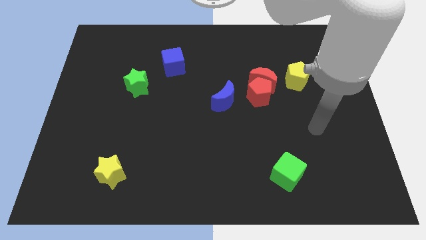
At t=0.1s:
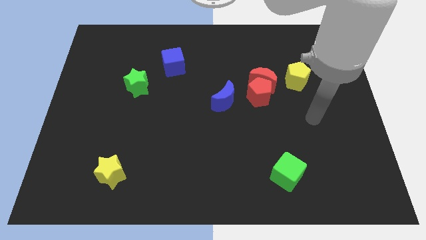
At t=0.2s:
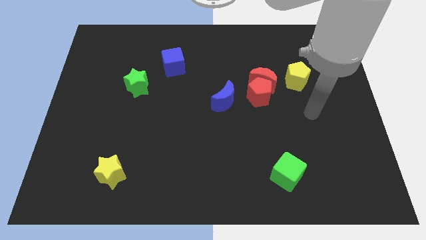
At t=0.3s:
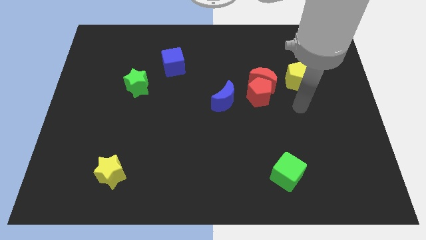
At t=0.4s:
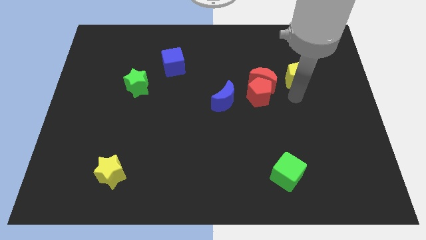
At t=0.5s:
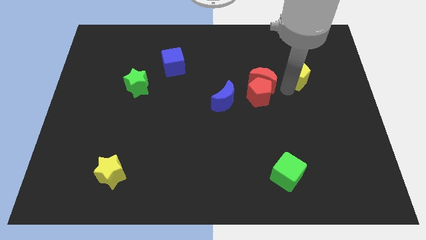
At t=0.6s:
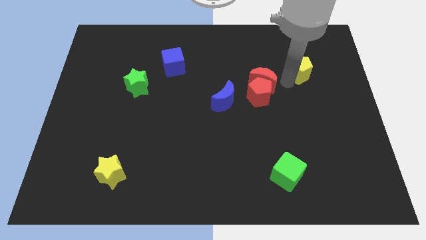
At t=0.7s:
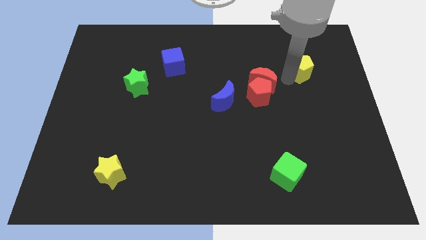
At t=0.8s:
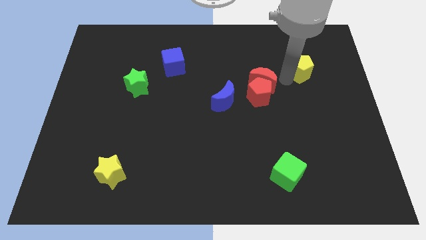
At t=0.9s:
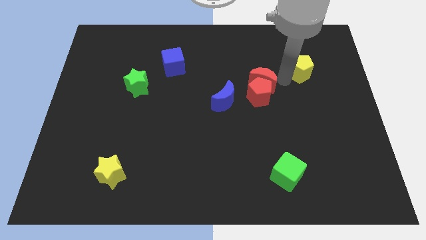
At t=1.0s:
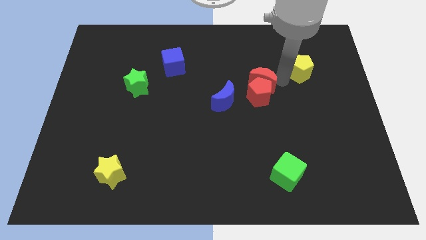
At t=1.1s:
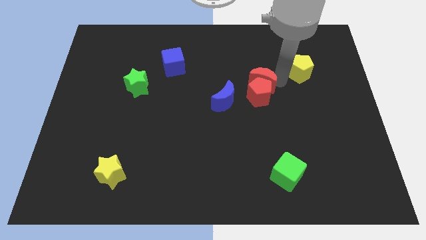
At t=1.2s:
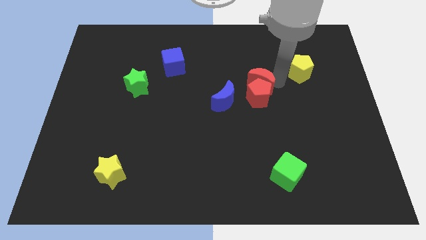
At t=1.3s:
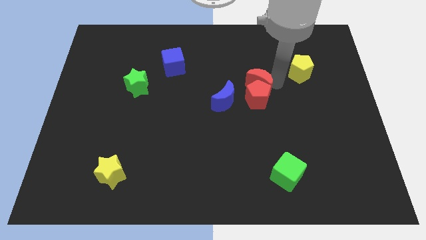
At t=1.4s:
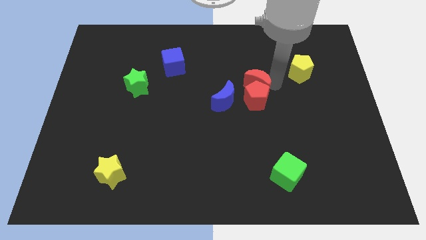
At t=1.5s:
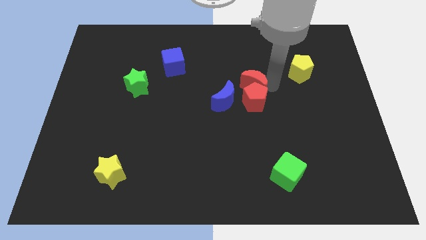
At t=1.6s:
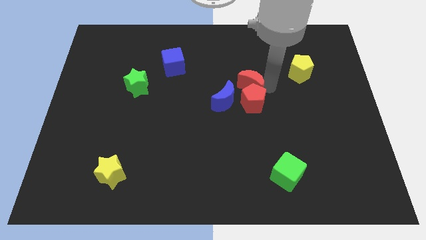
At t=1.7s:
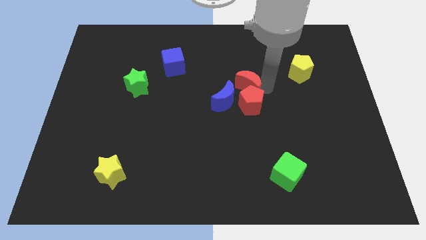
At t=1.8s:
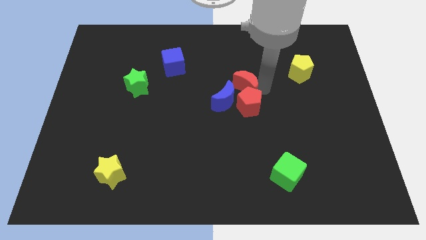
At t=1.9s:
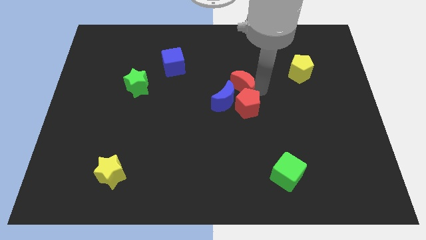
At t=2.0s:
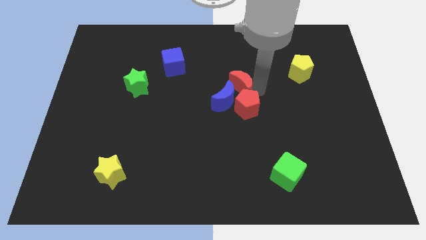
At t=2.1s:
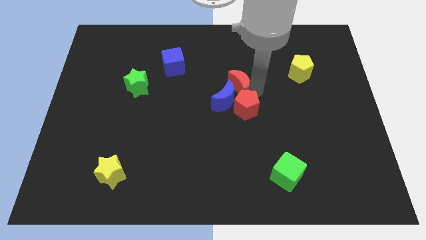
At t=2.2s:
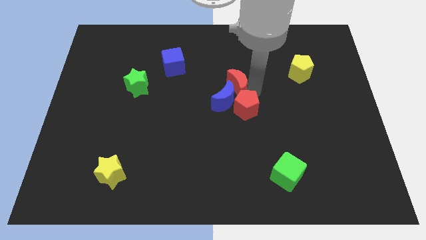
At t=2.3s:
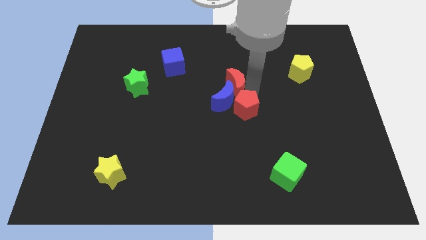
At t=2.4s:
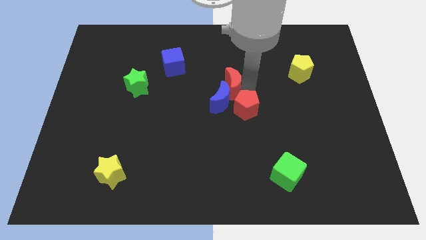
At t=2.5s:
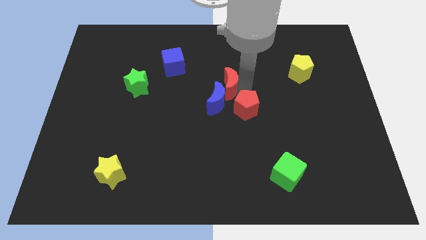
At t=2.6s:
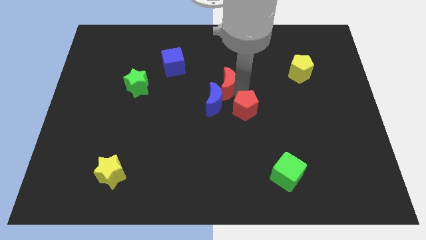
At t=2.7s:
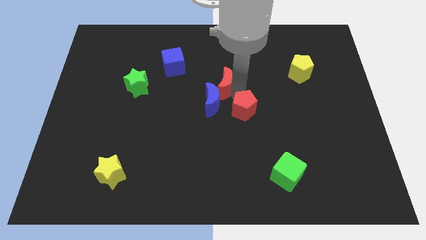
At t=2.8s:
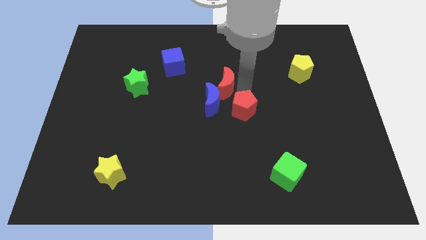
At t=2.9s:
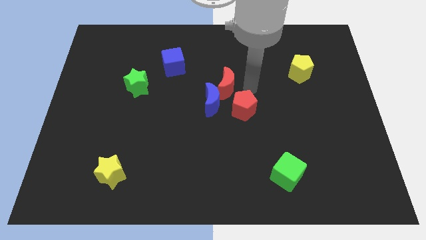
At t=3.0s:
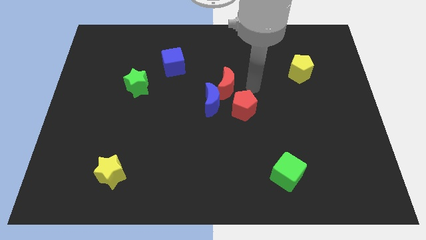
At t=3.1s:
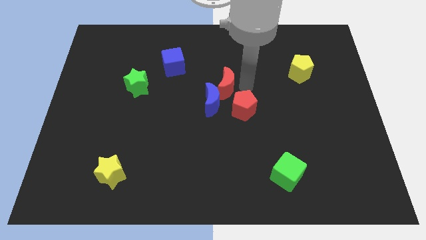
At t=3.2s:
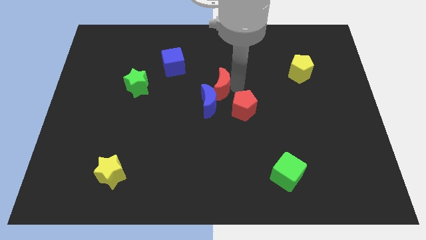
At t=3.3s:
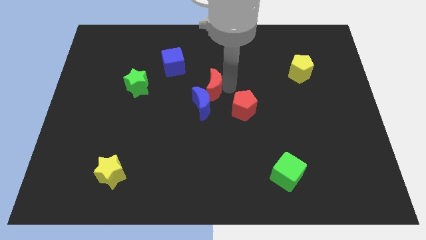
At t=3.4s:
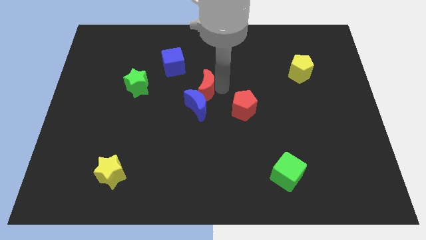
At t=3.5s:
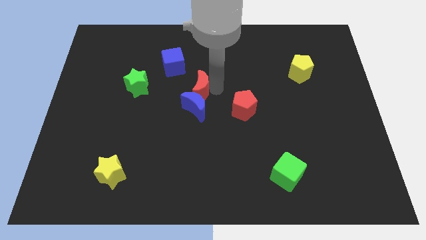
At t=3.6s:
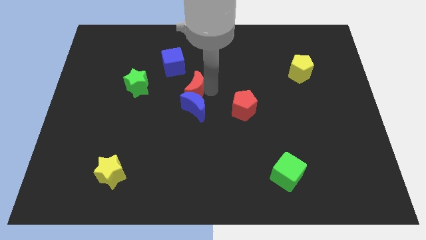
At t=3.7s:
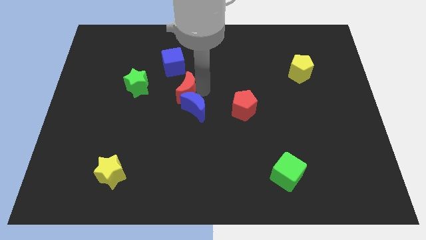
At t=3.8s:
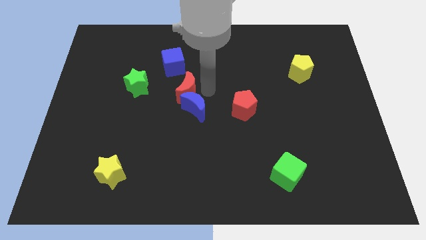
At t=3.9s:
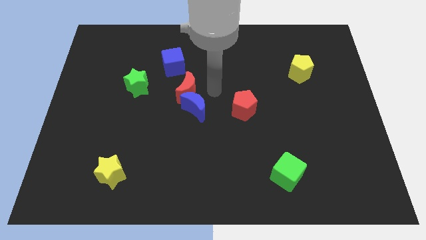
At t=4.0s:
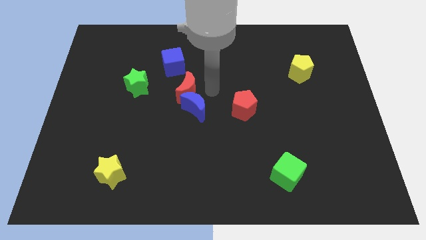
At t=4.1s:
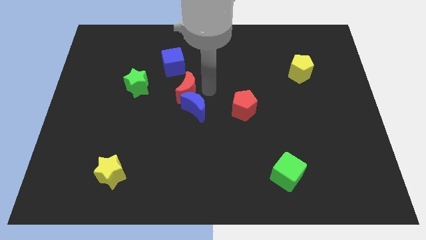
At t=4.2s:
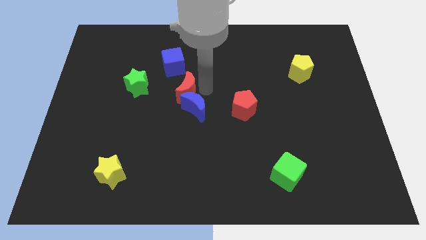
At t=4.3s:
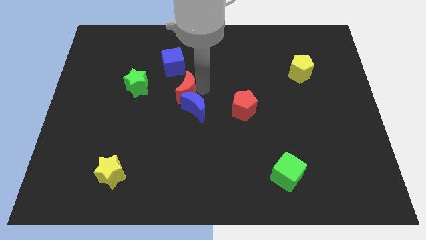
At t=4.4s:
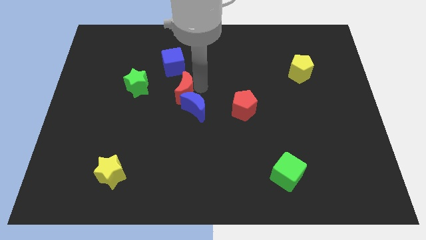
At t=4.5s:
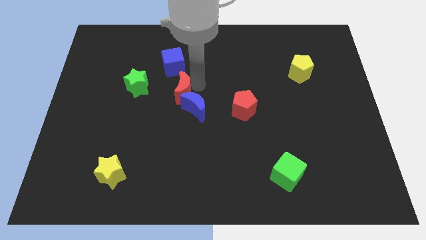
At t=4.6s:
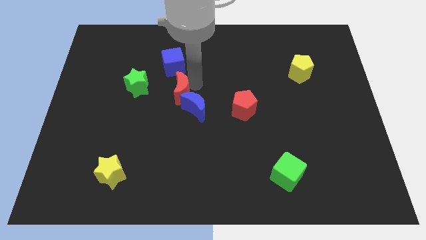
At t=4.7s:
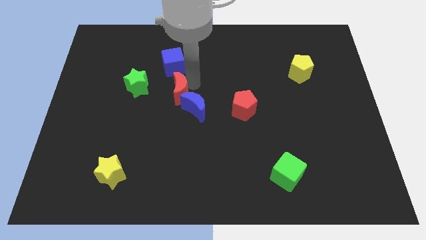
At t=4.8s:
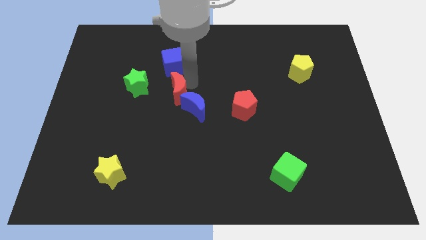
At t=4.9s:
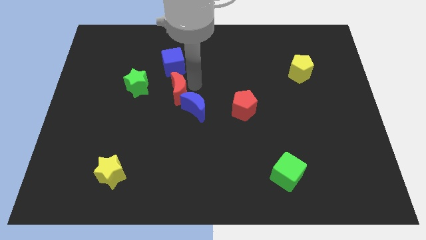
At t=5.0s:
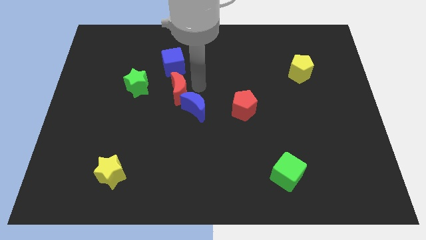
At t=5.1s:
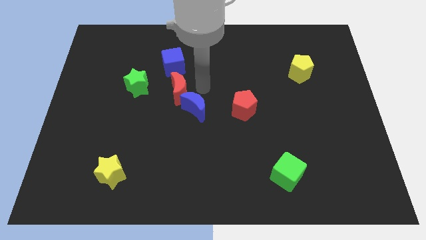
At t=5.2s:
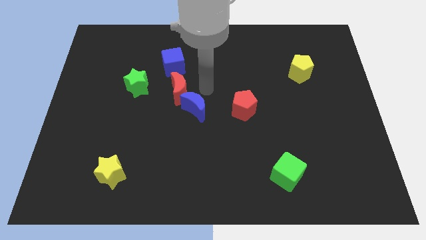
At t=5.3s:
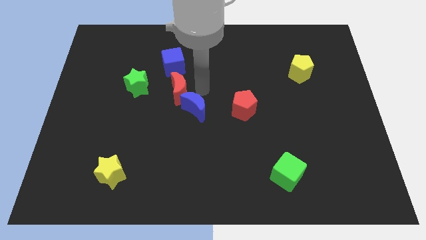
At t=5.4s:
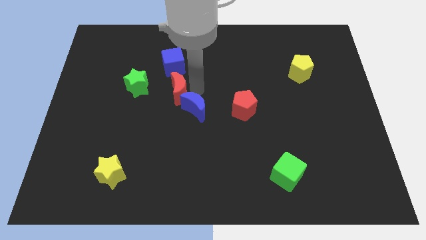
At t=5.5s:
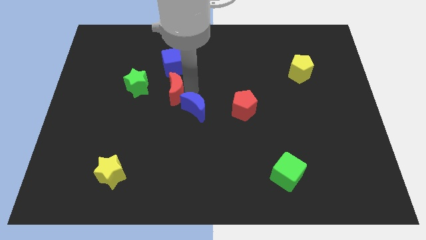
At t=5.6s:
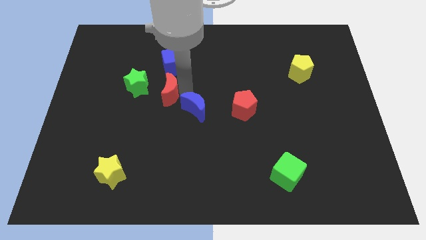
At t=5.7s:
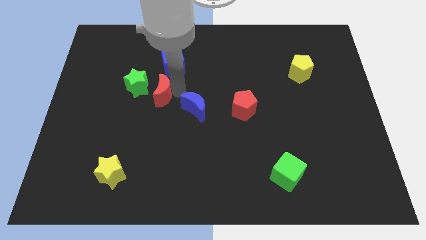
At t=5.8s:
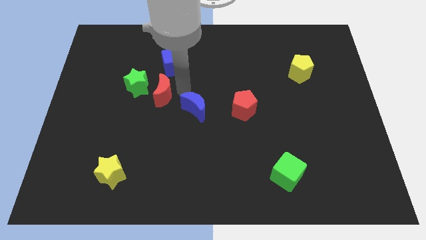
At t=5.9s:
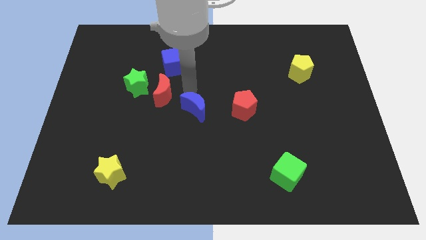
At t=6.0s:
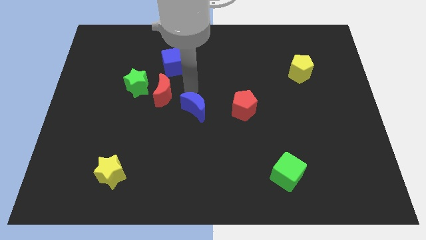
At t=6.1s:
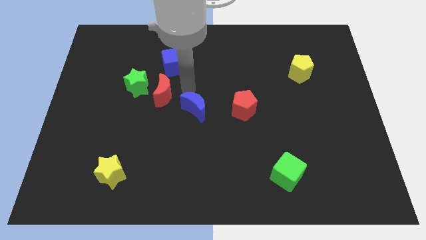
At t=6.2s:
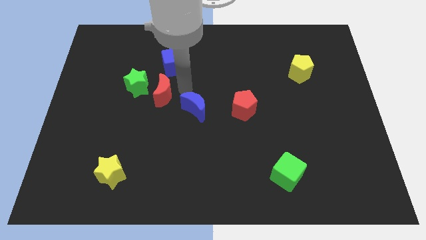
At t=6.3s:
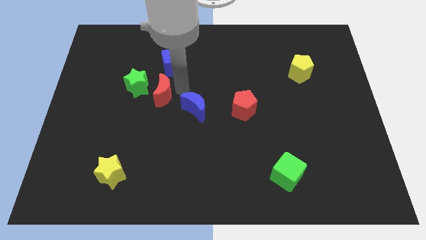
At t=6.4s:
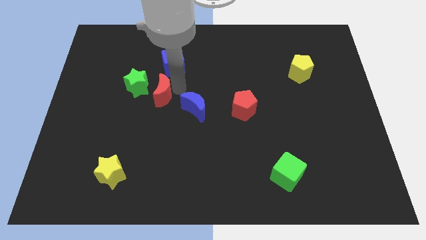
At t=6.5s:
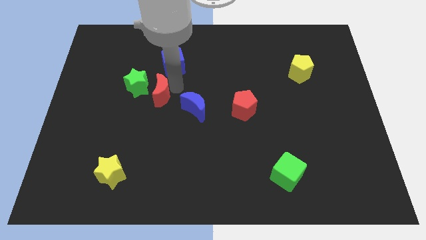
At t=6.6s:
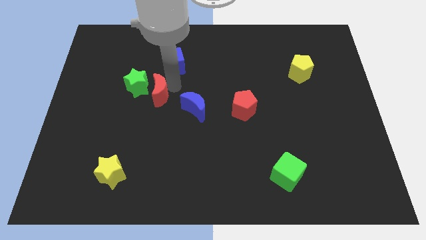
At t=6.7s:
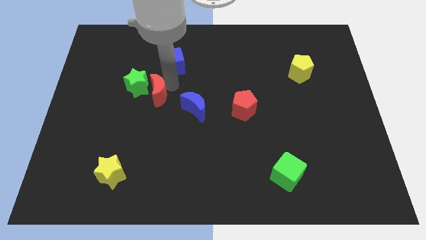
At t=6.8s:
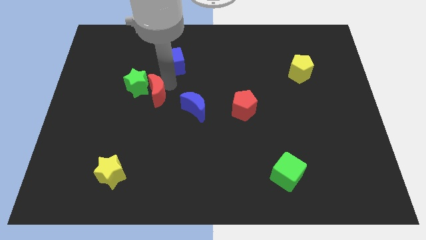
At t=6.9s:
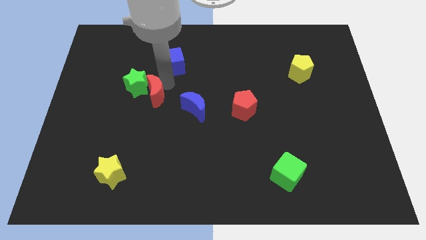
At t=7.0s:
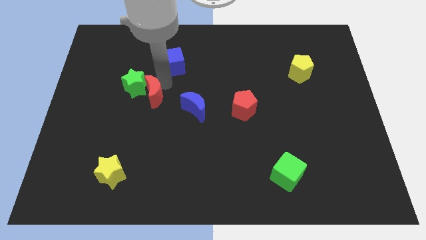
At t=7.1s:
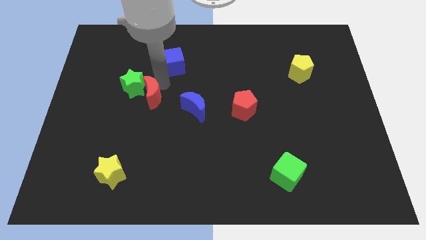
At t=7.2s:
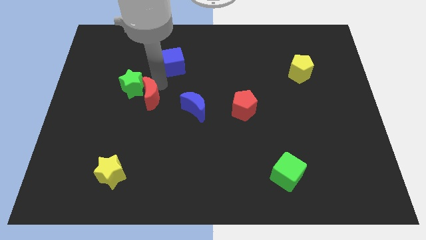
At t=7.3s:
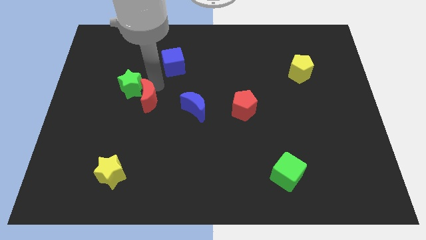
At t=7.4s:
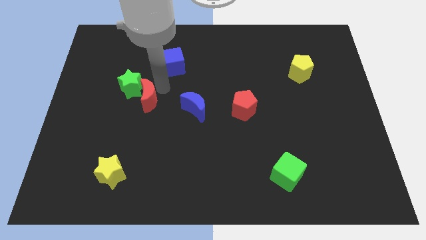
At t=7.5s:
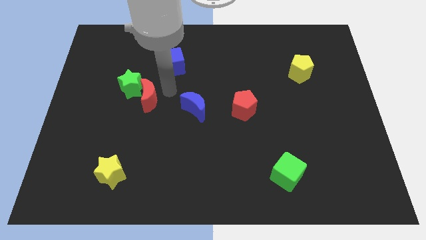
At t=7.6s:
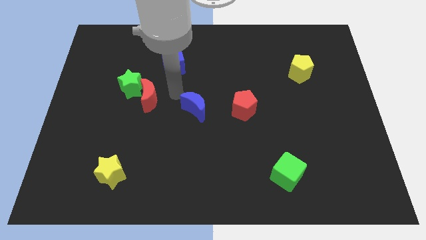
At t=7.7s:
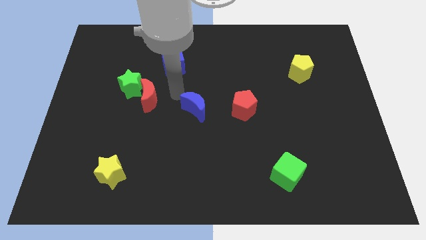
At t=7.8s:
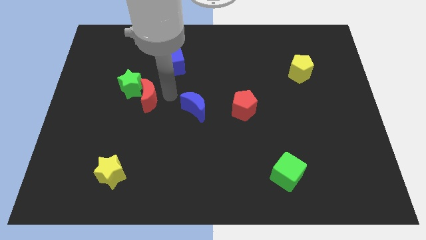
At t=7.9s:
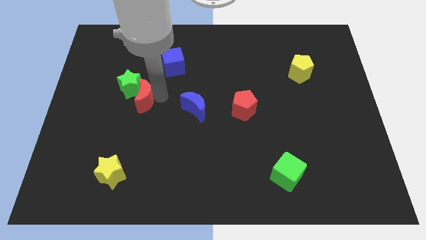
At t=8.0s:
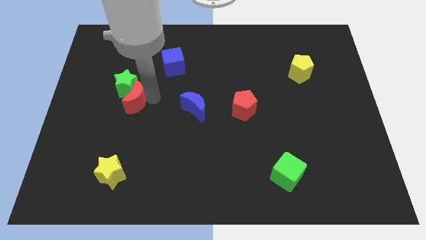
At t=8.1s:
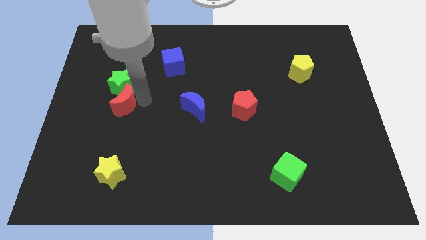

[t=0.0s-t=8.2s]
push the red moon diagonally down and to the left of the green star
